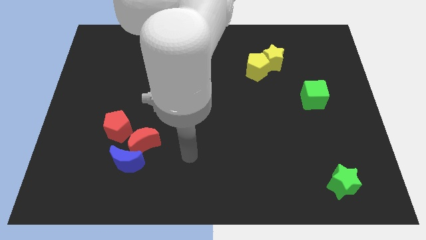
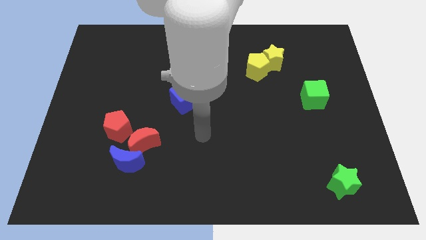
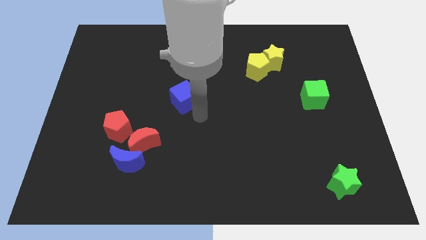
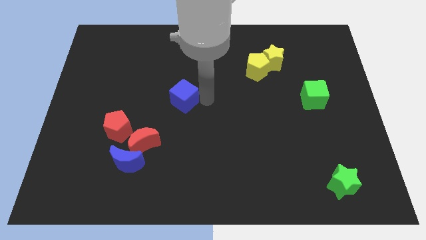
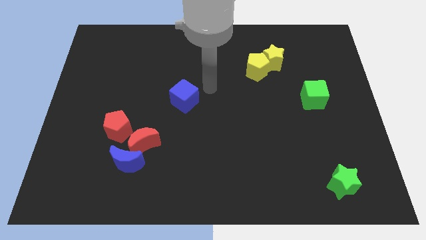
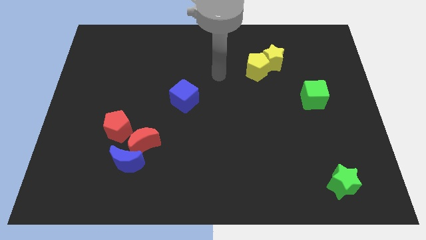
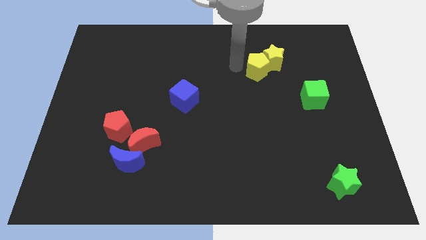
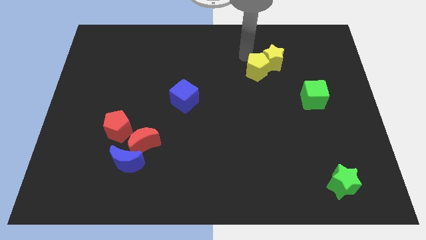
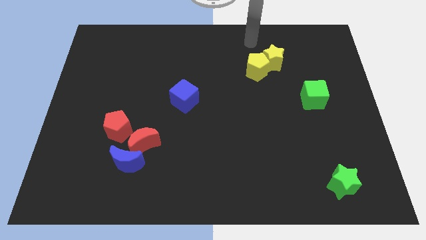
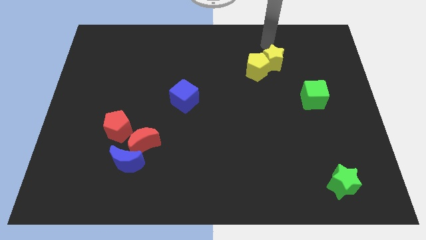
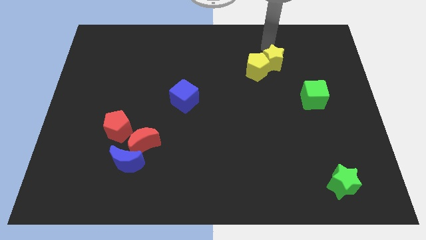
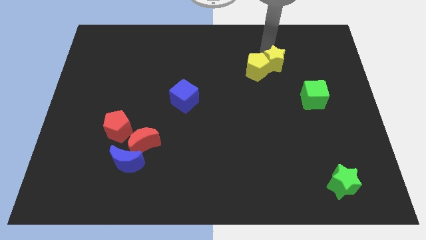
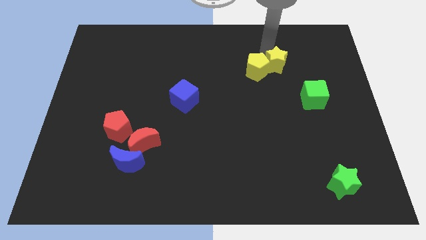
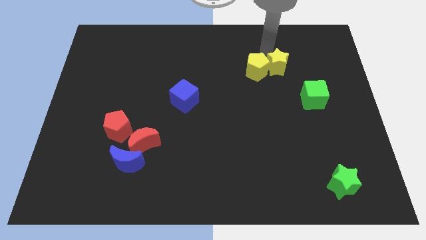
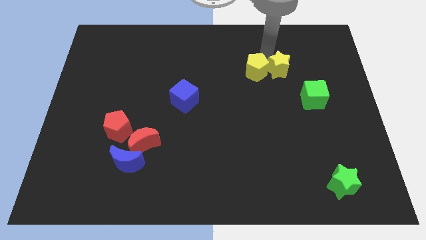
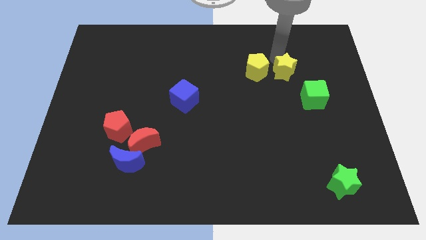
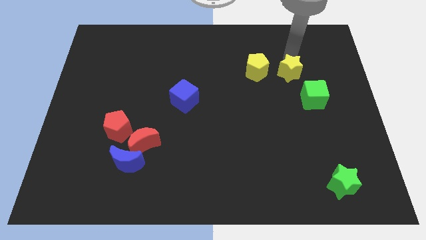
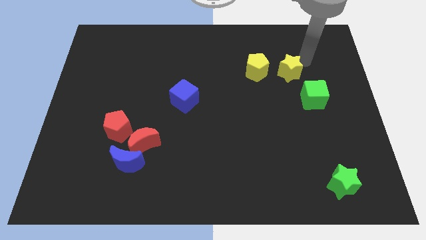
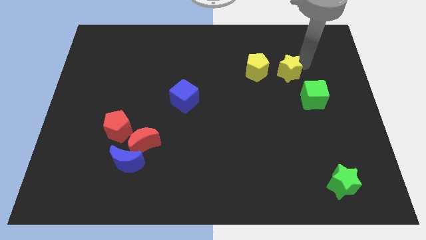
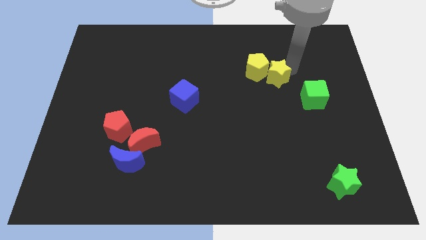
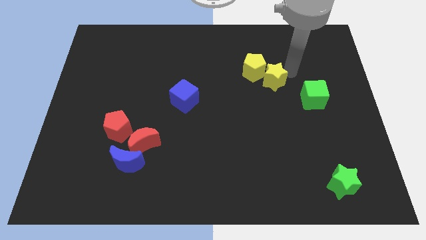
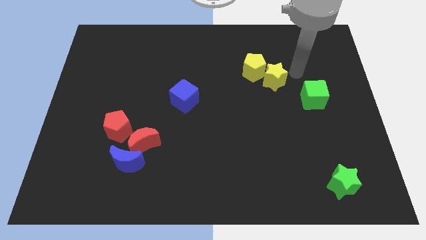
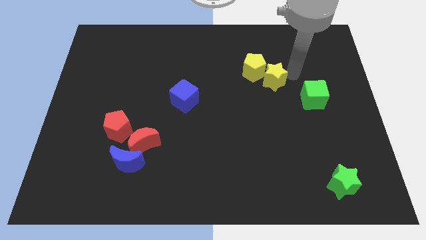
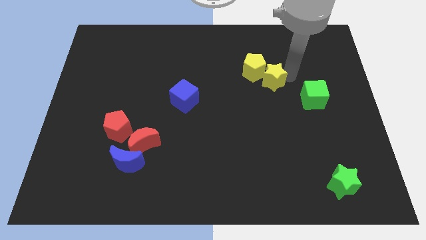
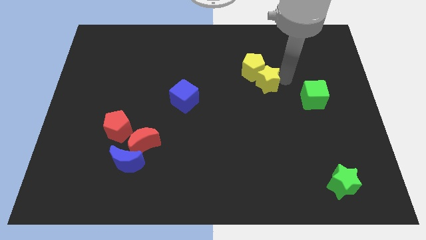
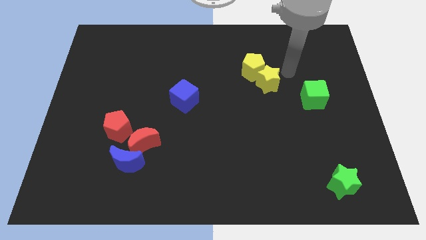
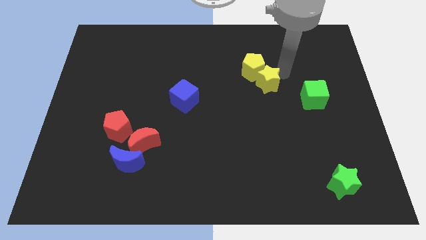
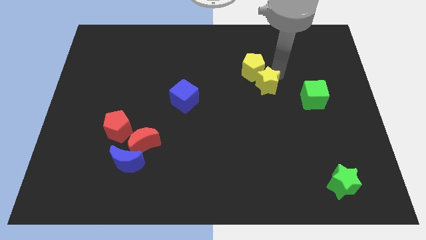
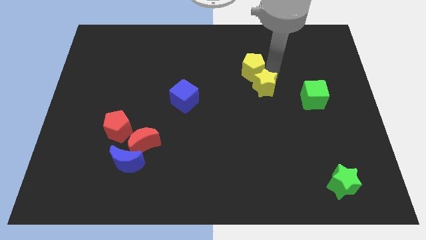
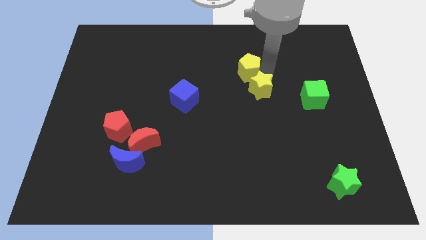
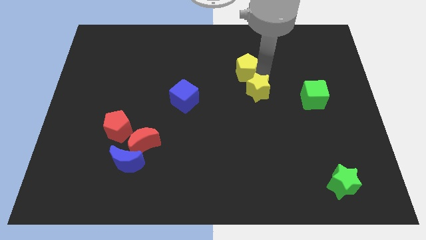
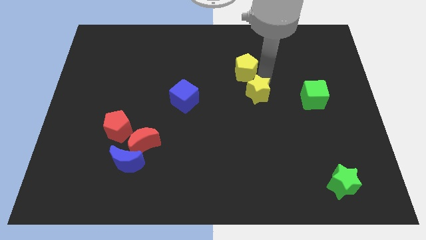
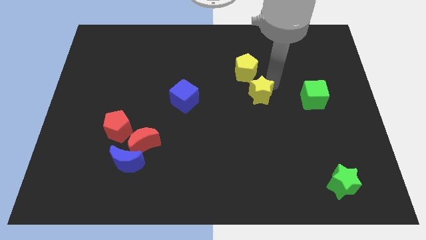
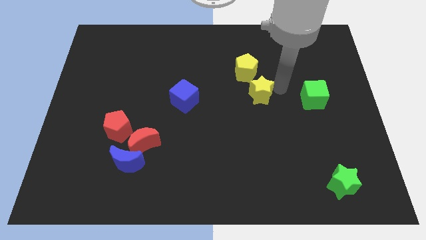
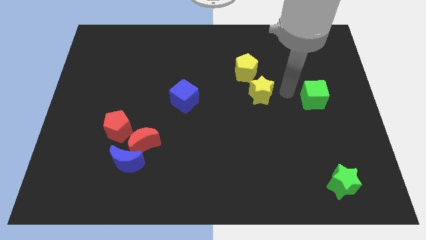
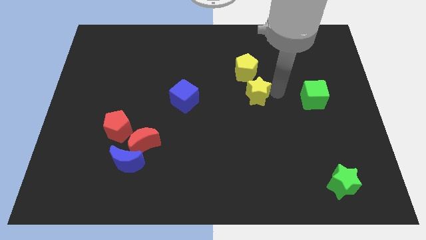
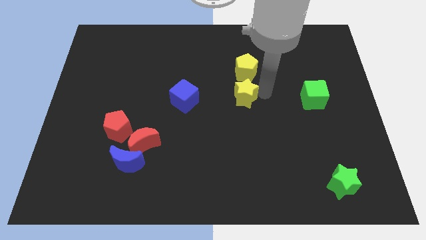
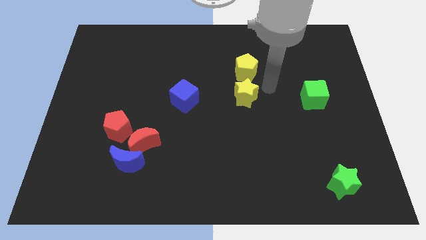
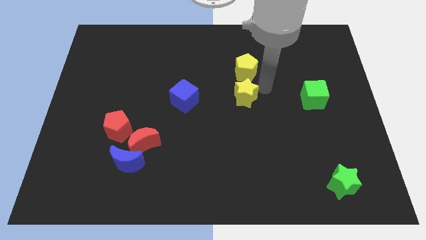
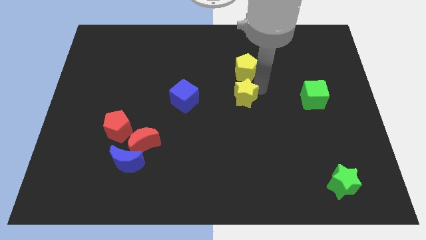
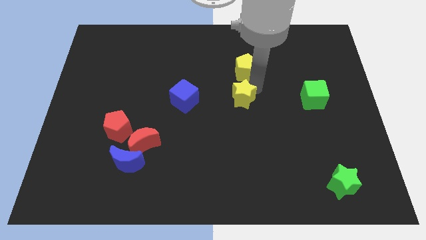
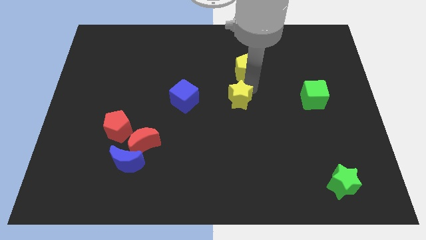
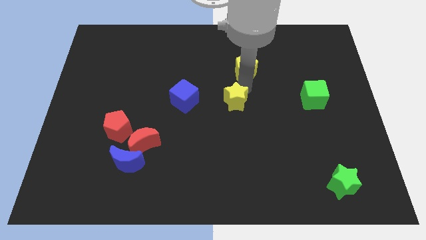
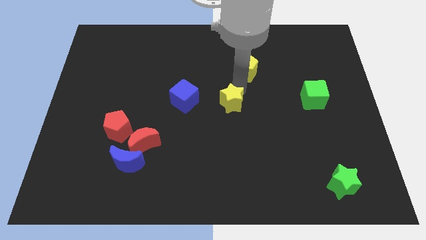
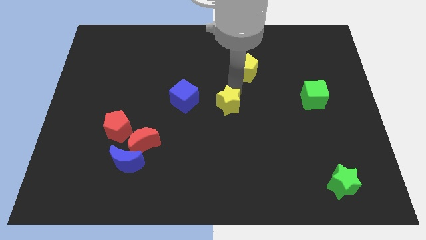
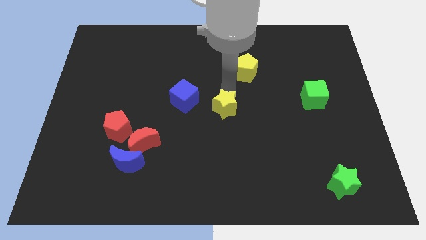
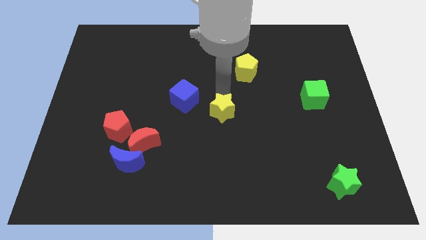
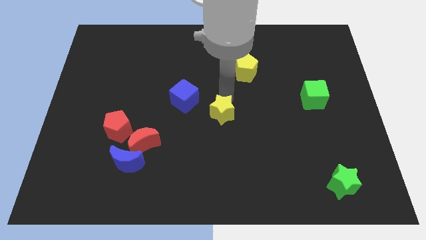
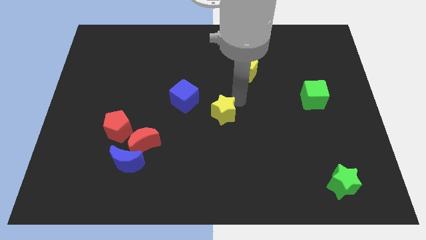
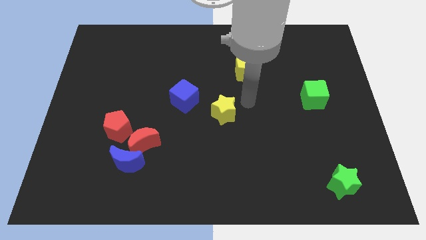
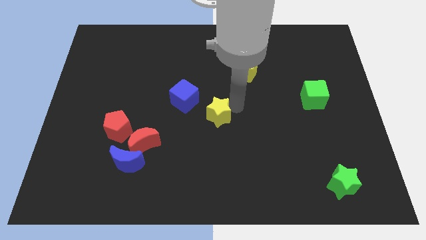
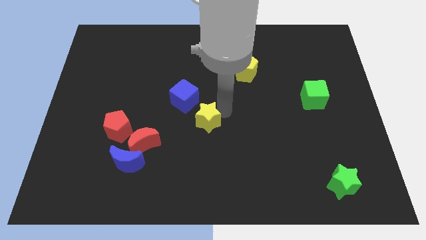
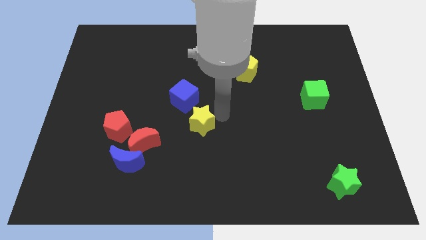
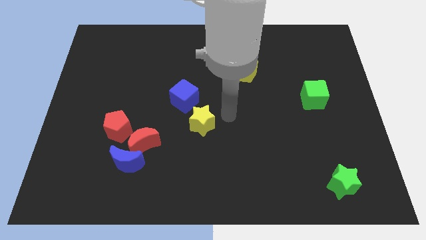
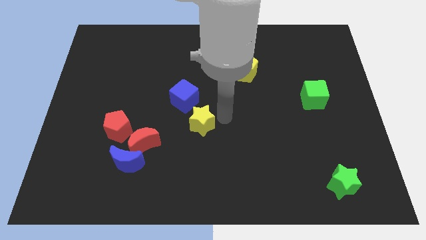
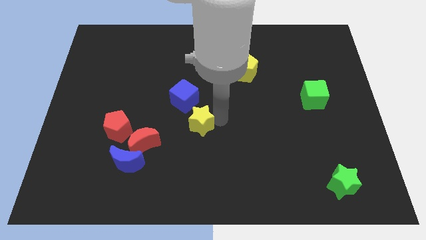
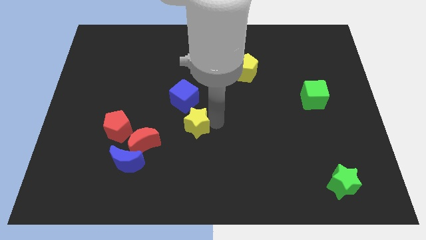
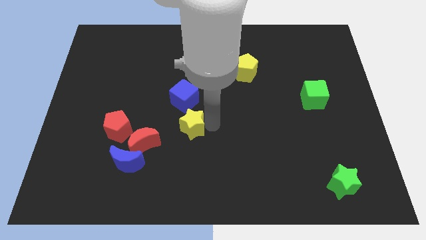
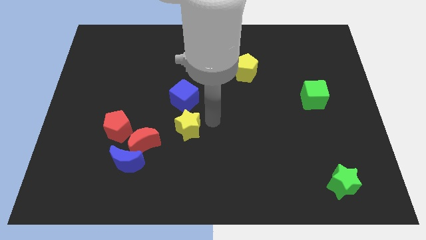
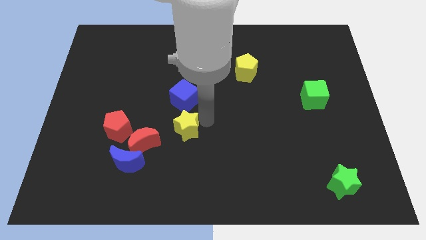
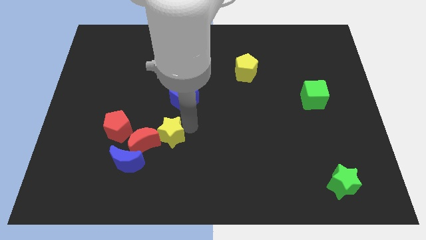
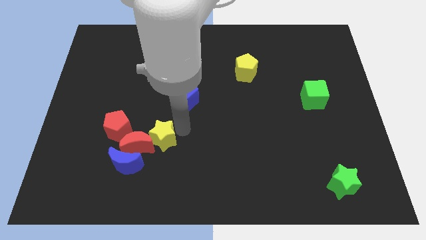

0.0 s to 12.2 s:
push the yellow star close to the red moon

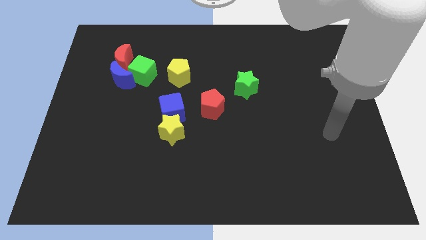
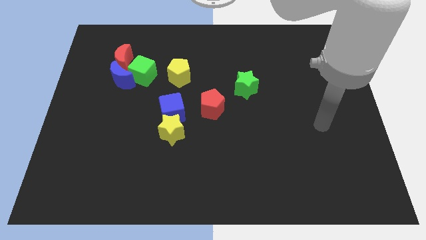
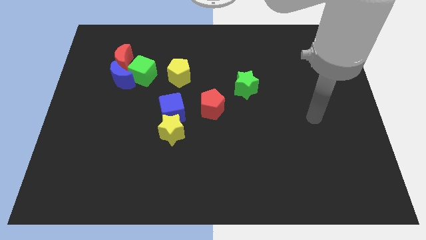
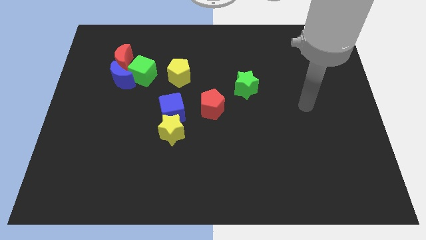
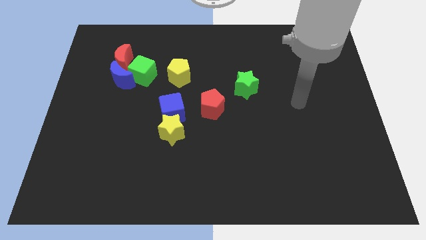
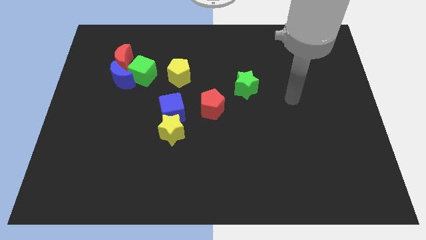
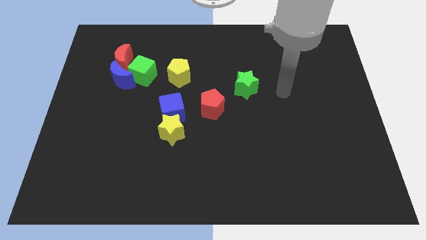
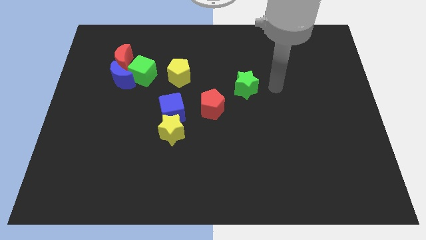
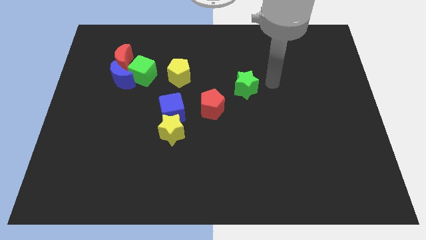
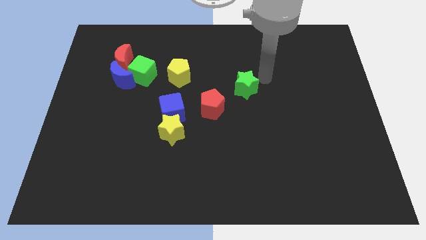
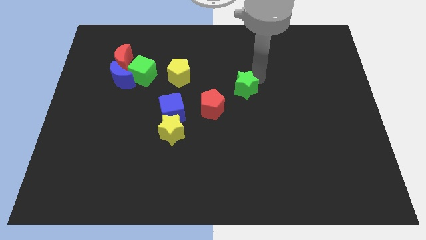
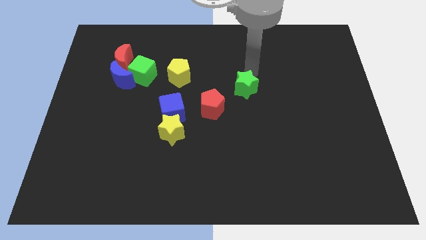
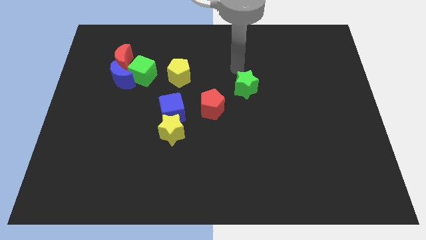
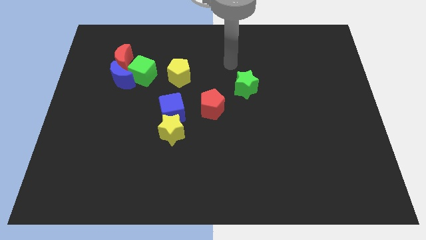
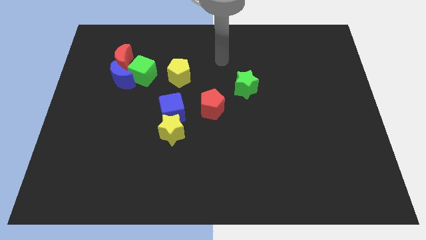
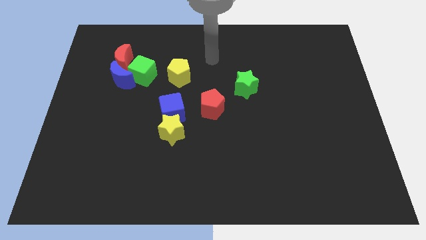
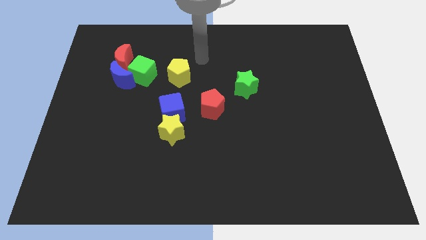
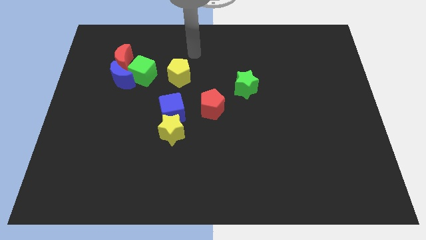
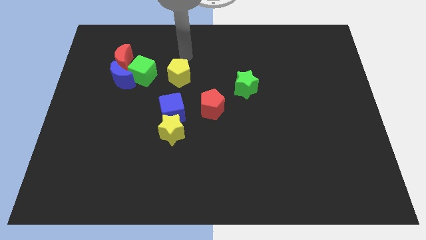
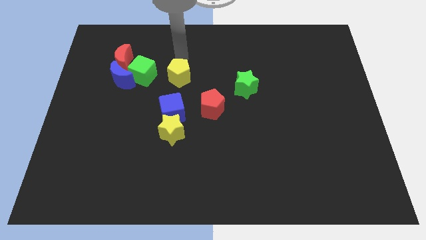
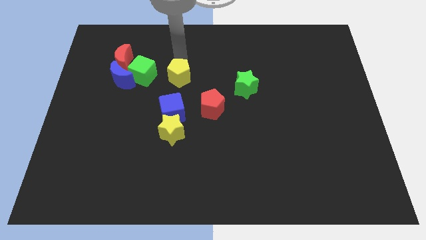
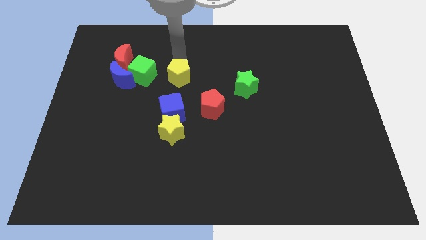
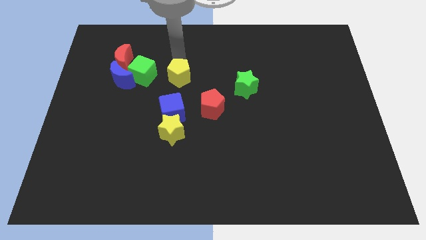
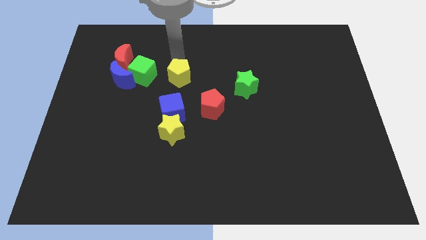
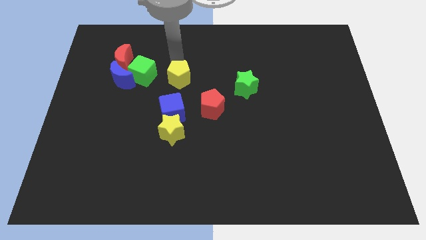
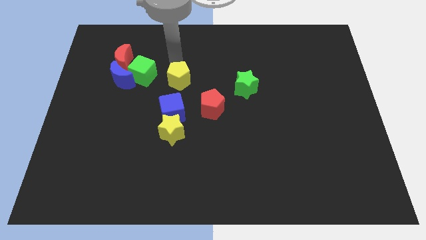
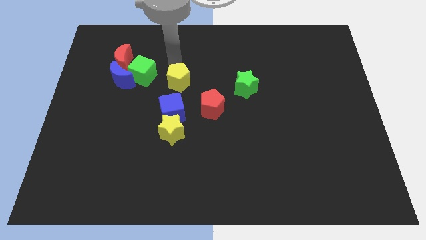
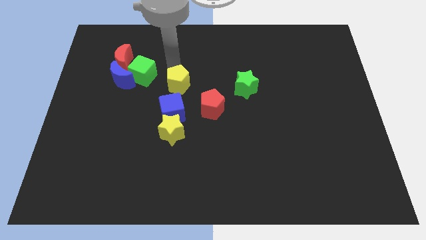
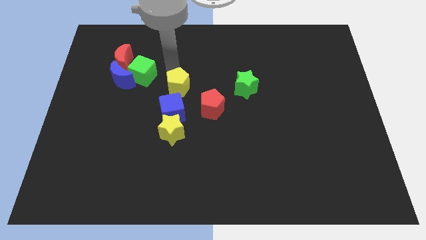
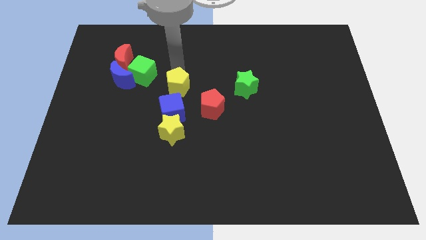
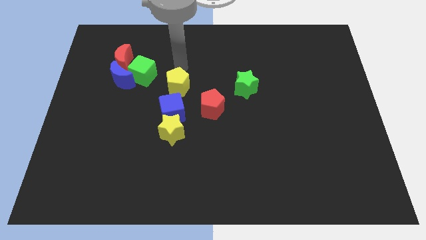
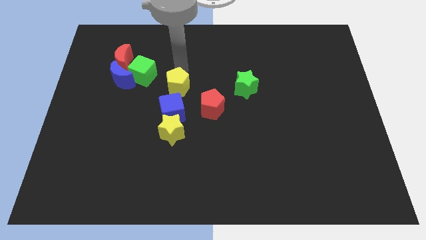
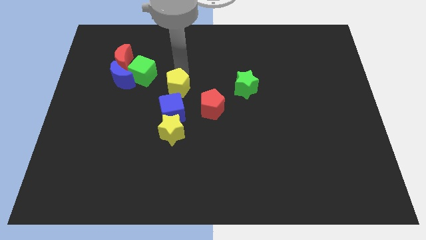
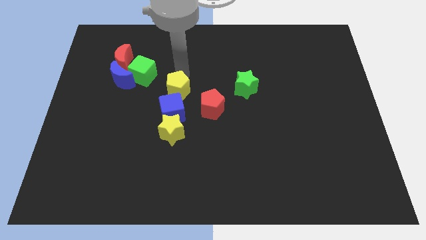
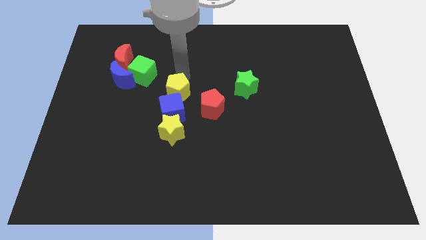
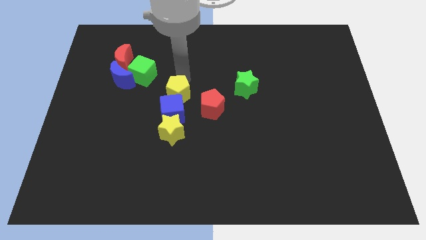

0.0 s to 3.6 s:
move the yellow pentagon close to the blue cube
